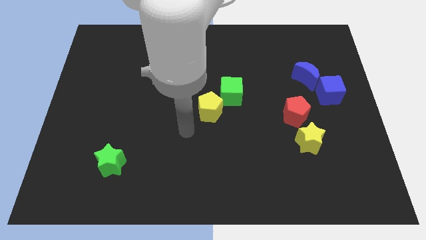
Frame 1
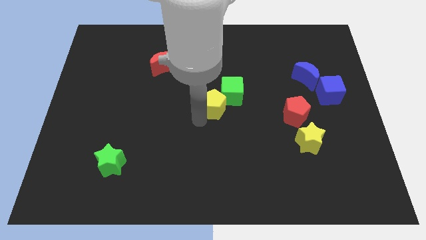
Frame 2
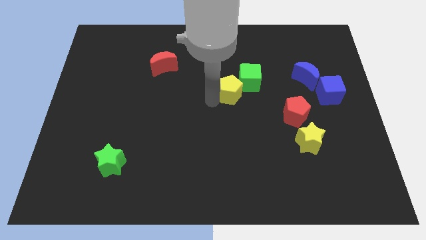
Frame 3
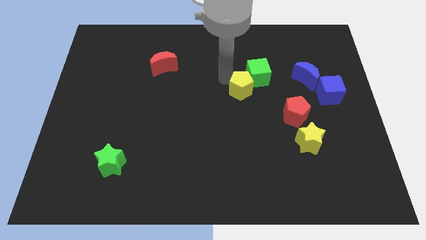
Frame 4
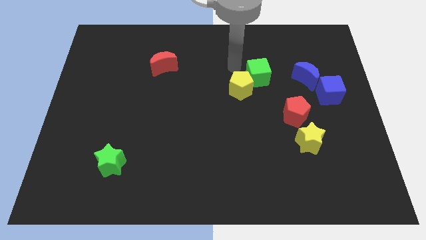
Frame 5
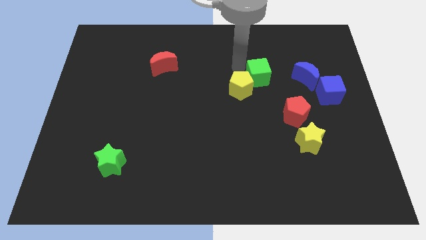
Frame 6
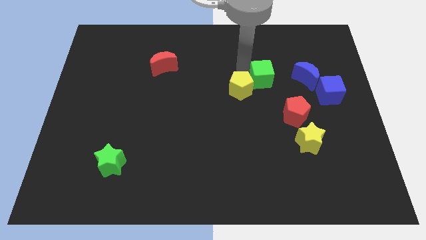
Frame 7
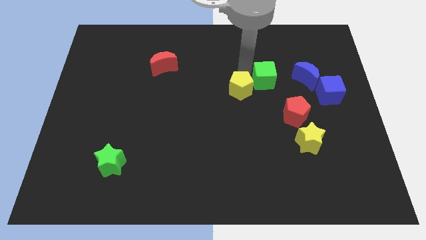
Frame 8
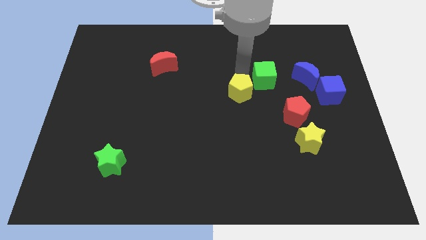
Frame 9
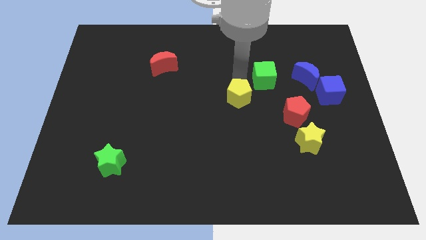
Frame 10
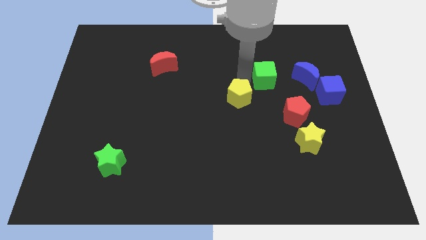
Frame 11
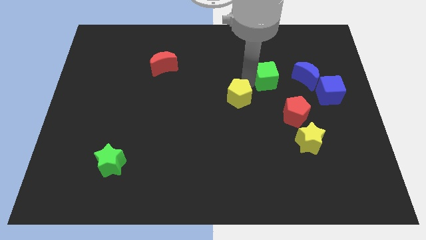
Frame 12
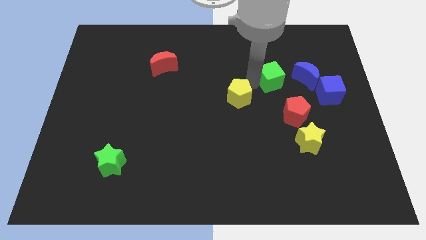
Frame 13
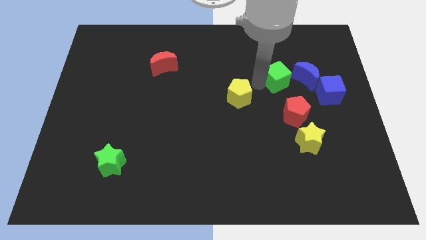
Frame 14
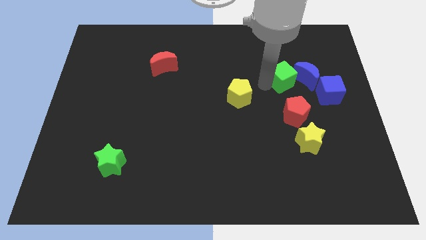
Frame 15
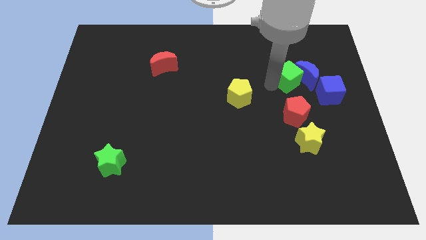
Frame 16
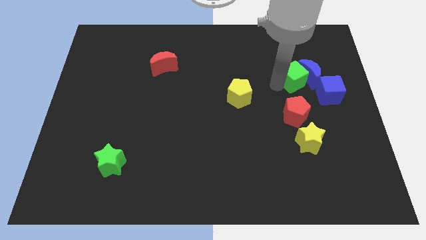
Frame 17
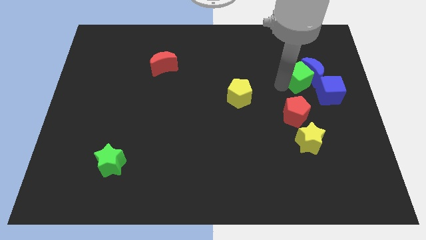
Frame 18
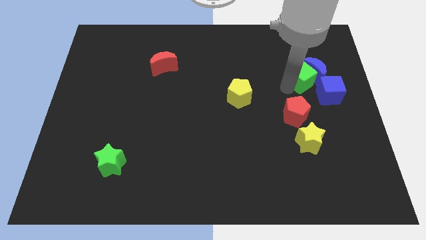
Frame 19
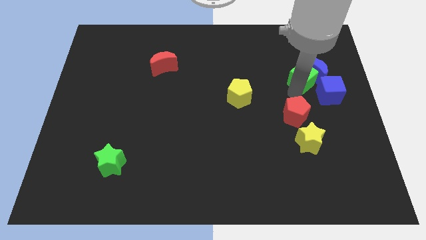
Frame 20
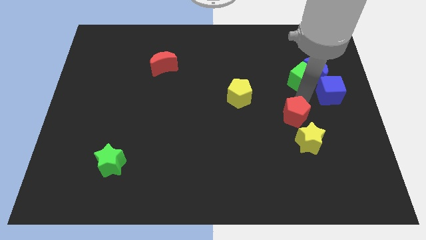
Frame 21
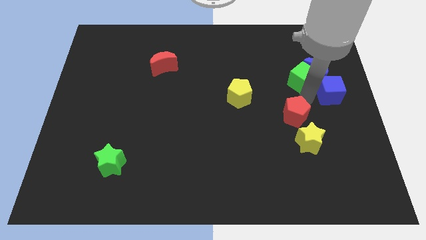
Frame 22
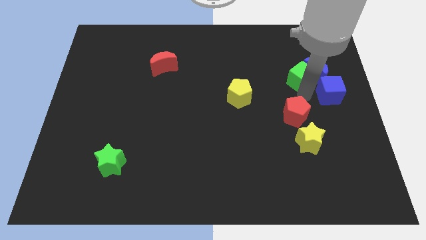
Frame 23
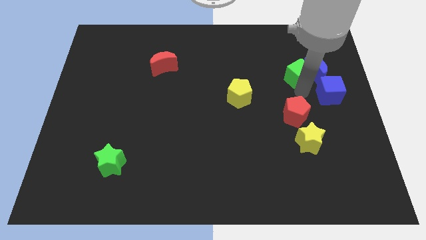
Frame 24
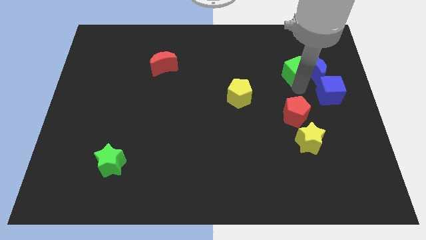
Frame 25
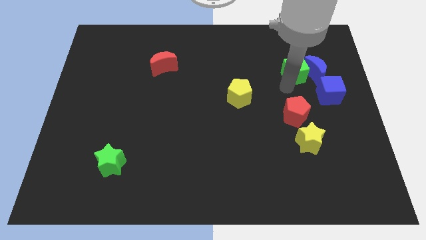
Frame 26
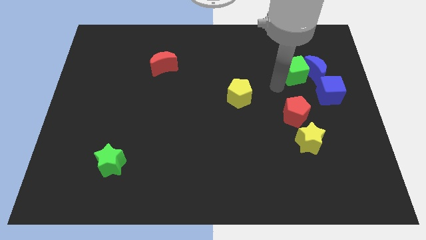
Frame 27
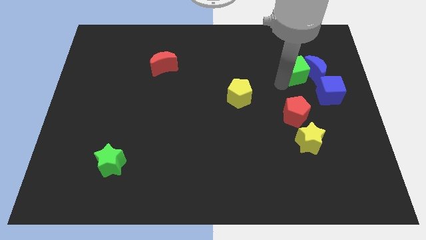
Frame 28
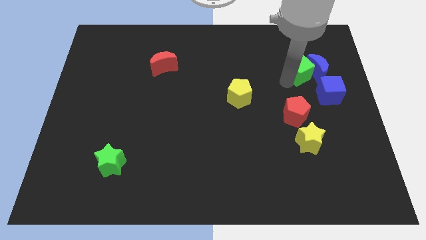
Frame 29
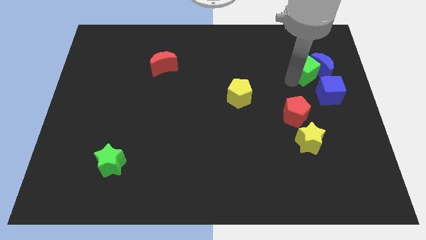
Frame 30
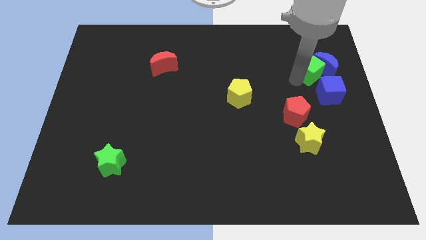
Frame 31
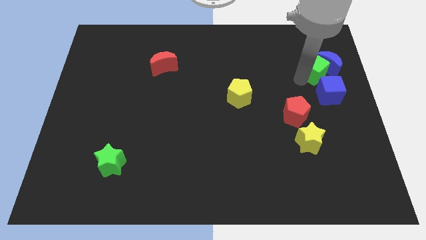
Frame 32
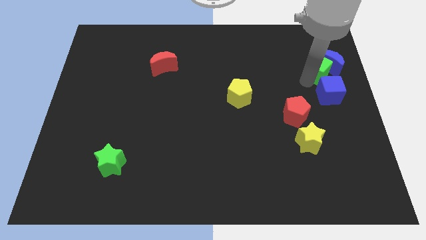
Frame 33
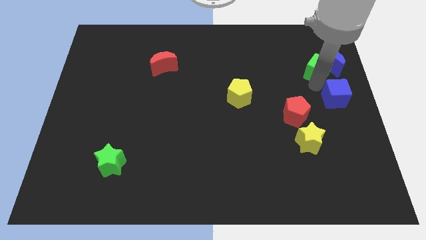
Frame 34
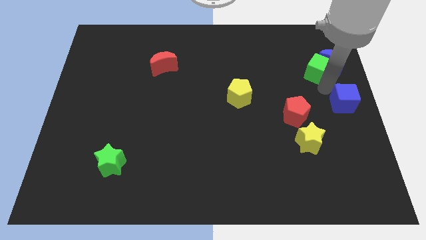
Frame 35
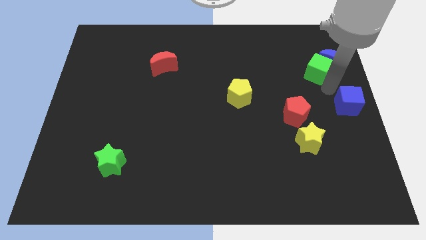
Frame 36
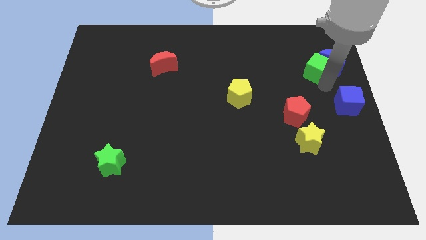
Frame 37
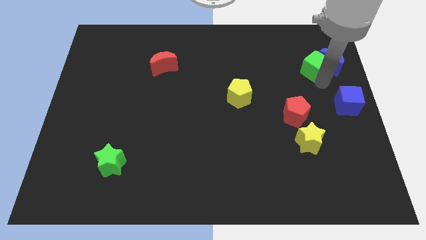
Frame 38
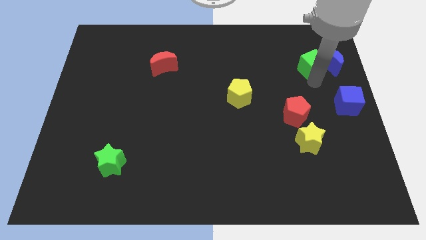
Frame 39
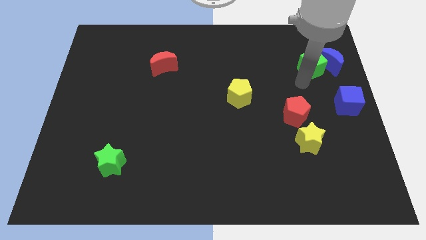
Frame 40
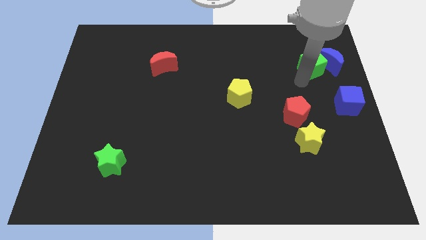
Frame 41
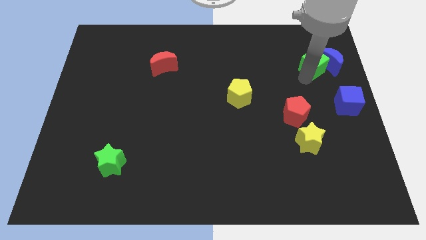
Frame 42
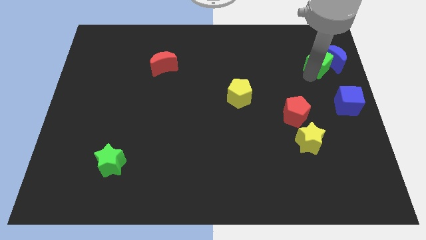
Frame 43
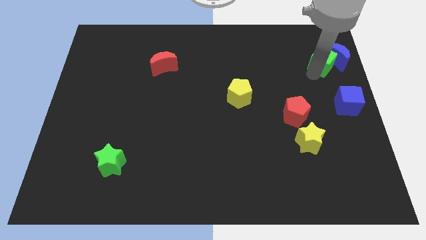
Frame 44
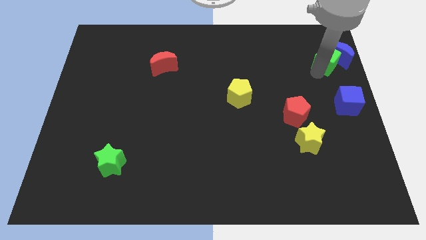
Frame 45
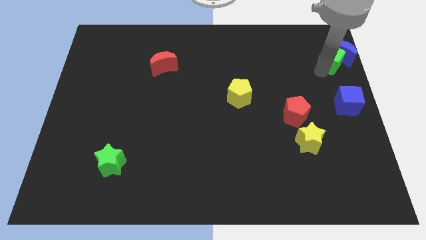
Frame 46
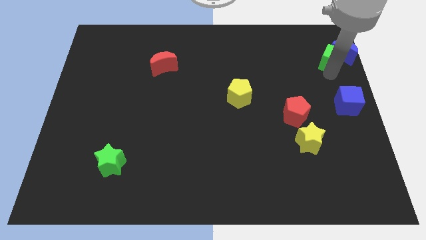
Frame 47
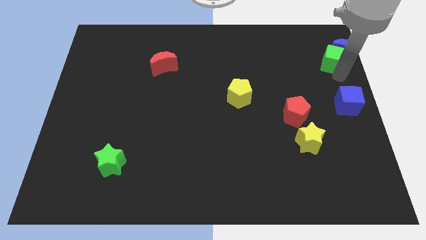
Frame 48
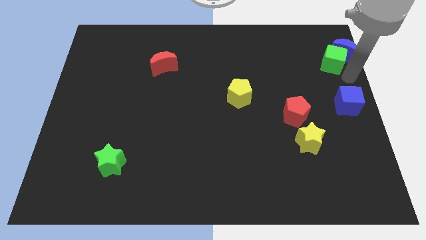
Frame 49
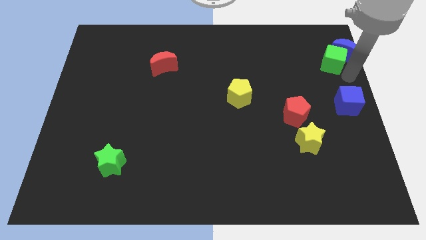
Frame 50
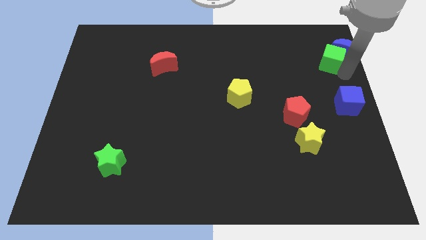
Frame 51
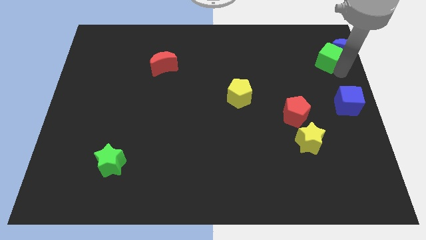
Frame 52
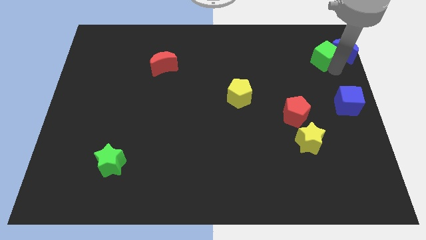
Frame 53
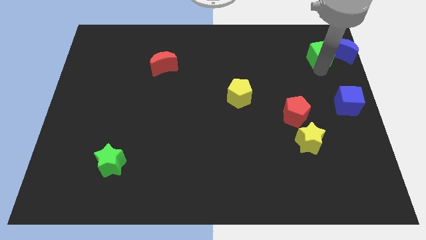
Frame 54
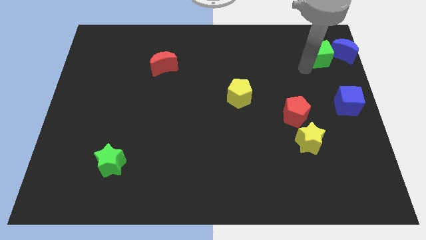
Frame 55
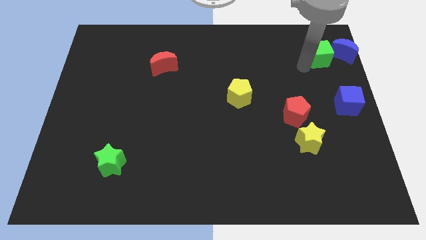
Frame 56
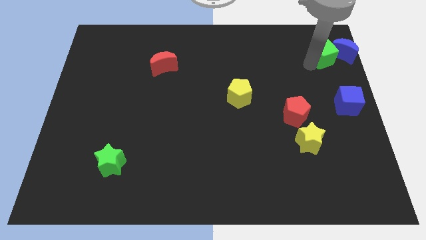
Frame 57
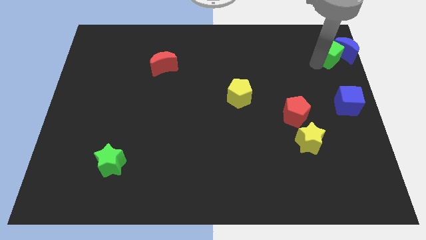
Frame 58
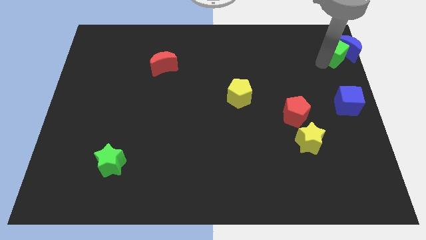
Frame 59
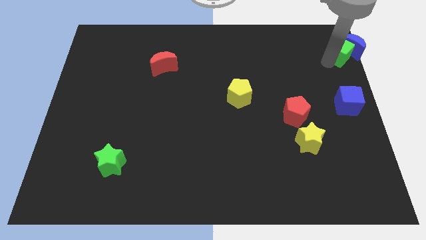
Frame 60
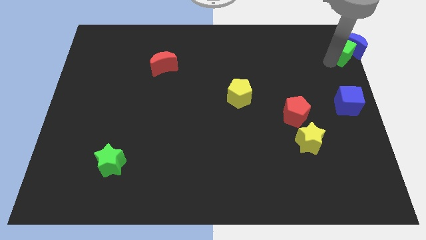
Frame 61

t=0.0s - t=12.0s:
slide the green cube to the top right of the board

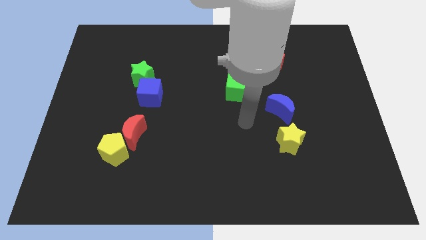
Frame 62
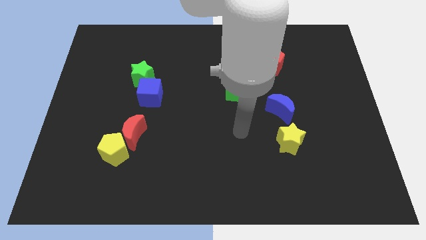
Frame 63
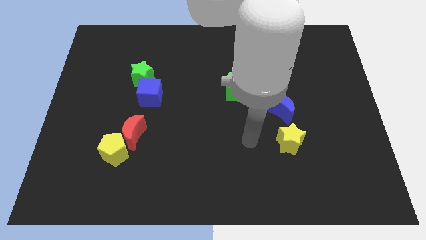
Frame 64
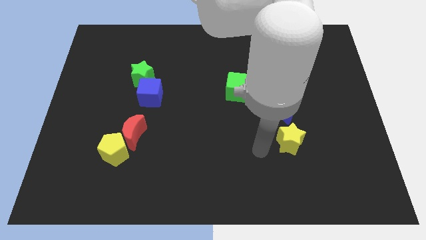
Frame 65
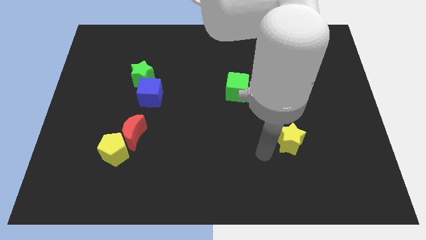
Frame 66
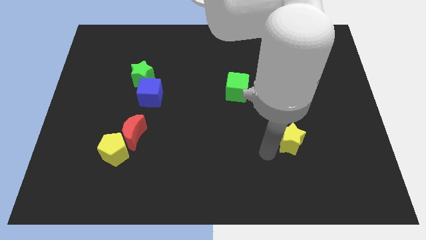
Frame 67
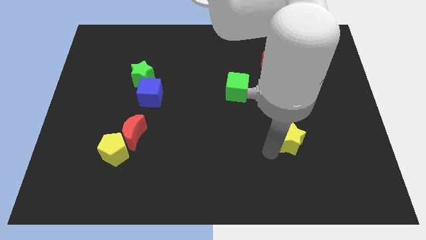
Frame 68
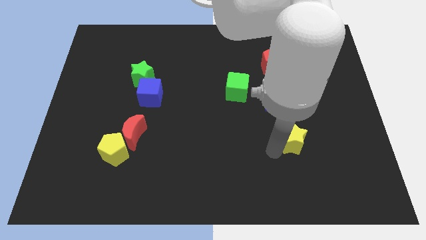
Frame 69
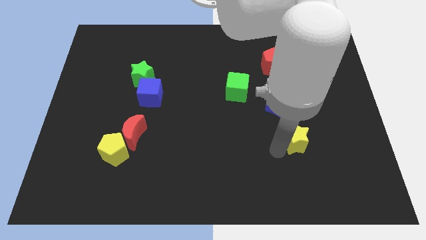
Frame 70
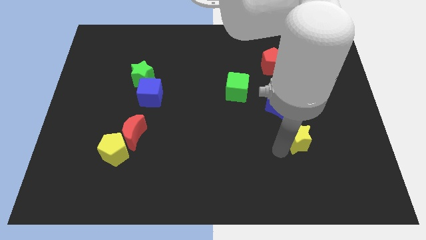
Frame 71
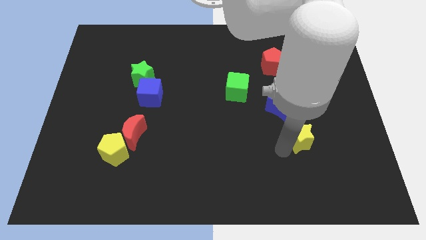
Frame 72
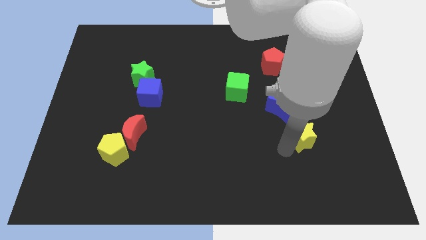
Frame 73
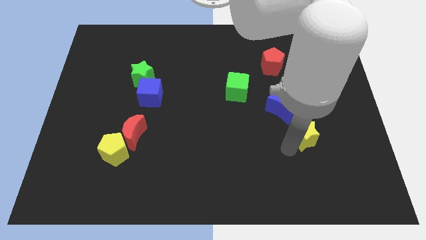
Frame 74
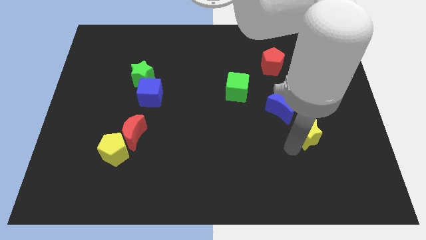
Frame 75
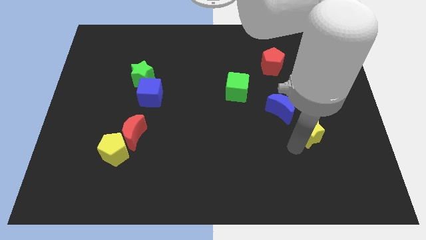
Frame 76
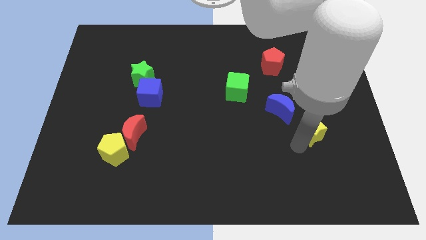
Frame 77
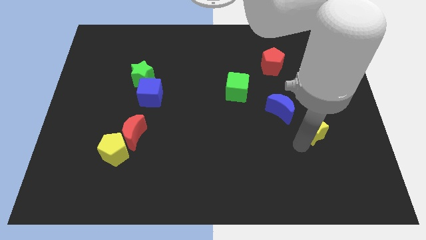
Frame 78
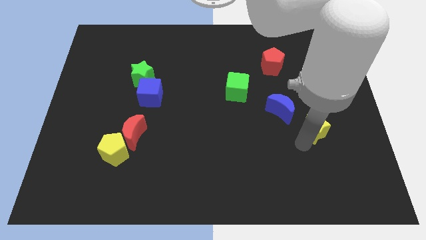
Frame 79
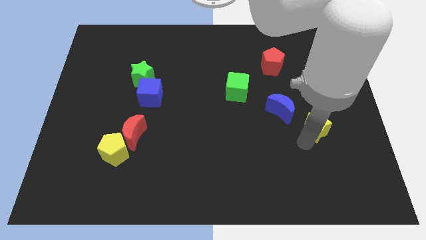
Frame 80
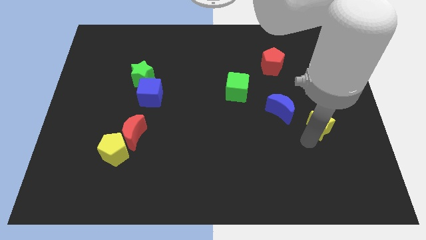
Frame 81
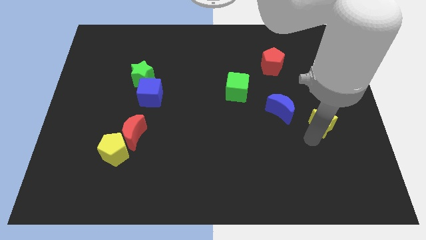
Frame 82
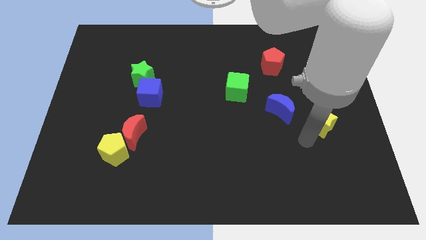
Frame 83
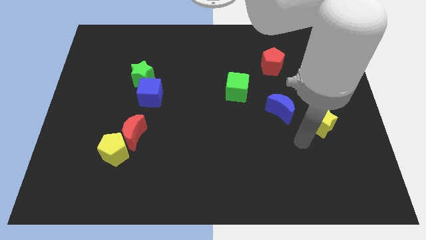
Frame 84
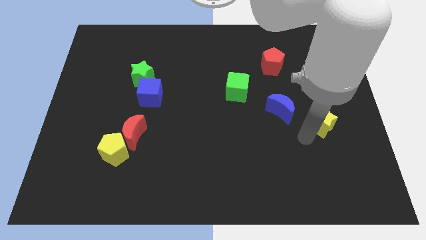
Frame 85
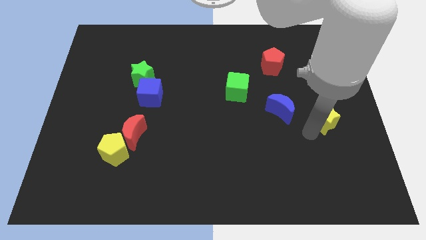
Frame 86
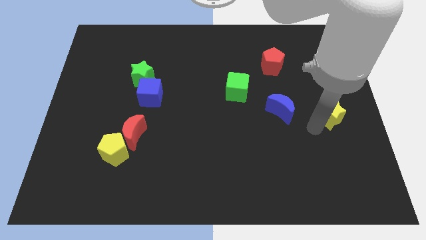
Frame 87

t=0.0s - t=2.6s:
move the yellow star to the right side of the board
